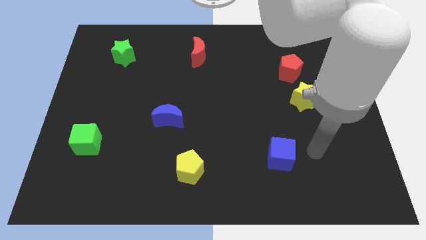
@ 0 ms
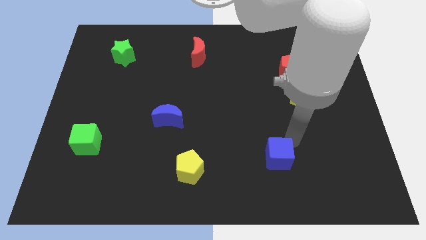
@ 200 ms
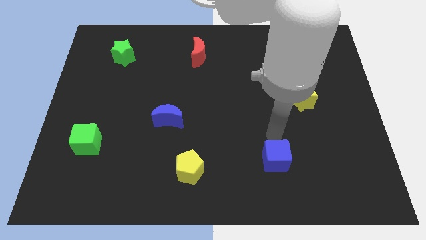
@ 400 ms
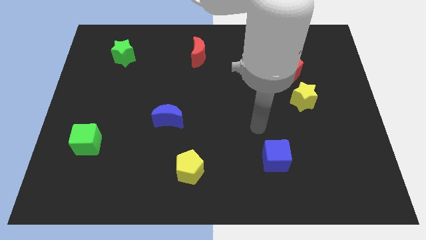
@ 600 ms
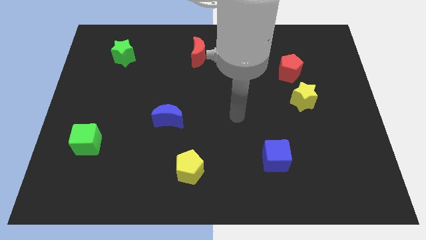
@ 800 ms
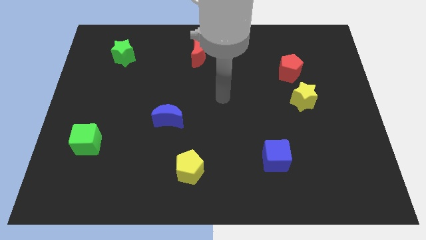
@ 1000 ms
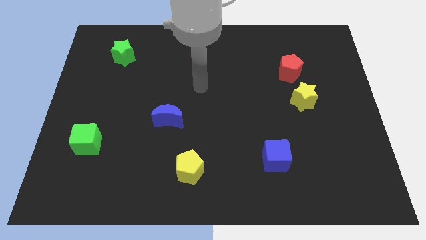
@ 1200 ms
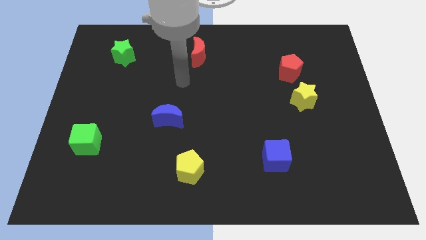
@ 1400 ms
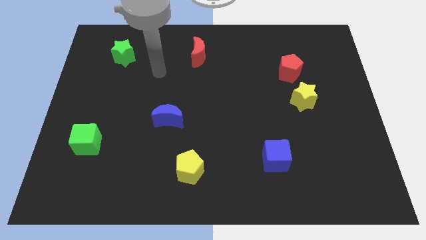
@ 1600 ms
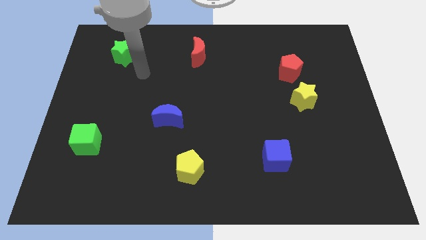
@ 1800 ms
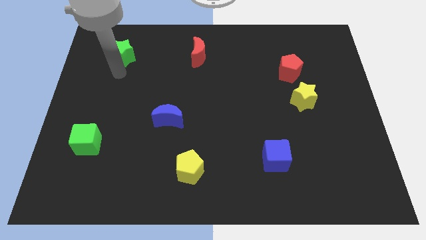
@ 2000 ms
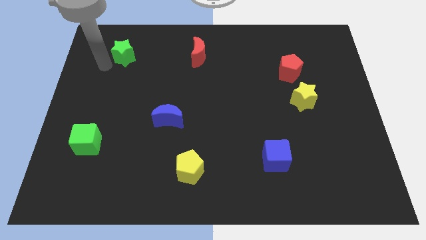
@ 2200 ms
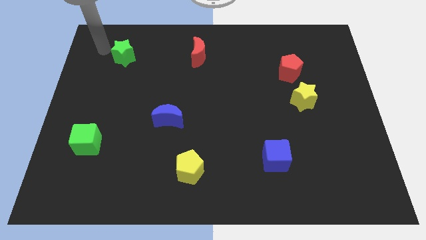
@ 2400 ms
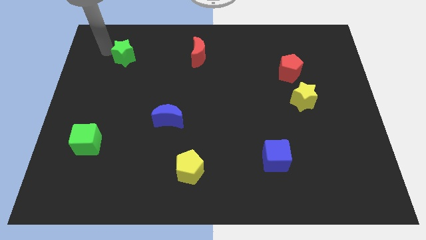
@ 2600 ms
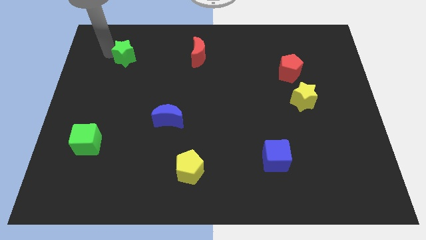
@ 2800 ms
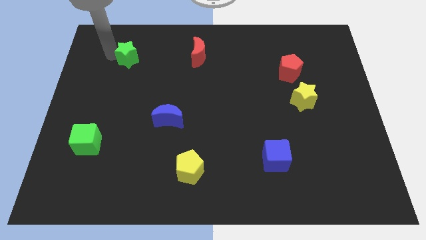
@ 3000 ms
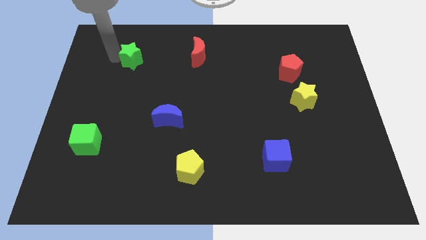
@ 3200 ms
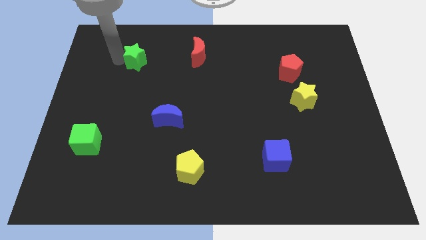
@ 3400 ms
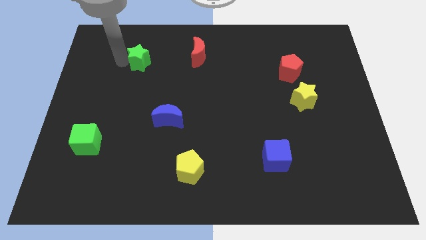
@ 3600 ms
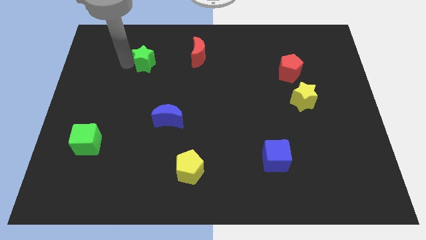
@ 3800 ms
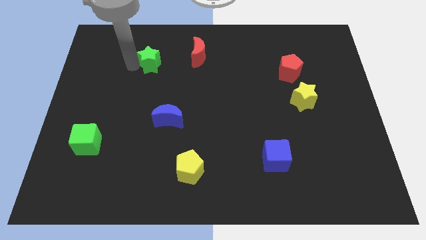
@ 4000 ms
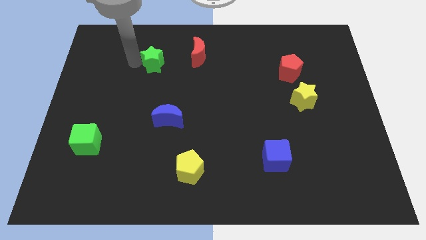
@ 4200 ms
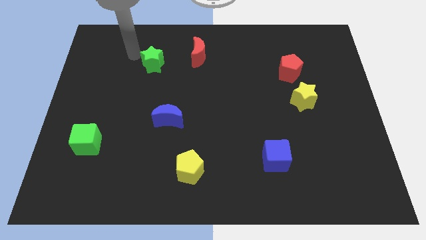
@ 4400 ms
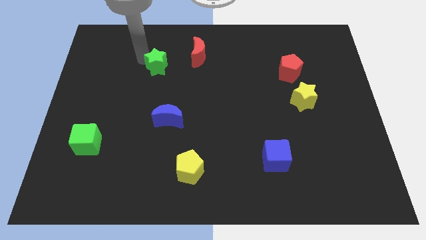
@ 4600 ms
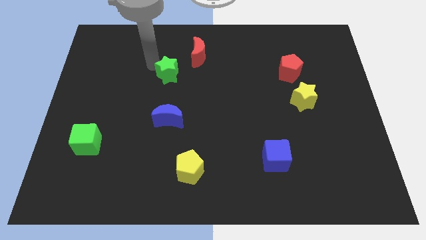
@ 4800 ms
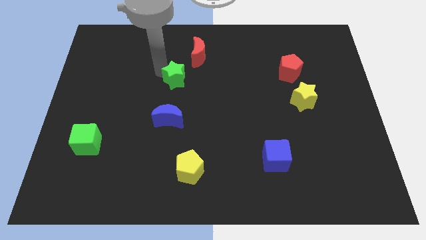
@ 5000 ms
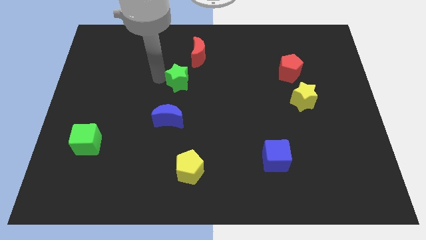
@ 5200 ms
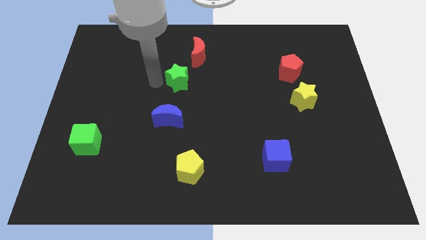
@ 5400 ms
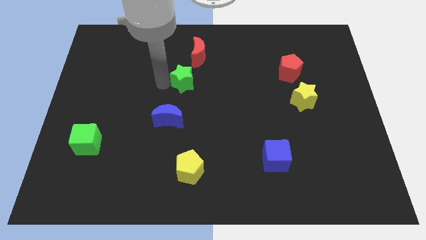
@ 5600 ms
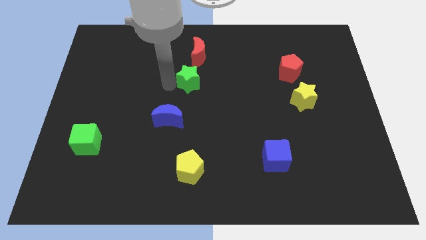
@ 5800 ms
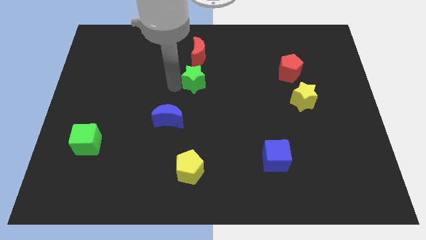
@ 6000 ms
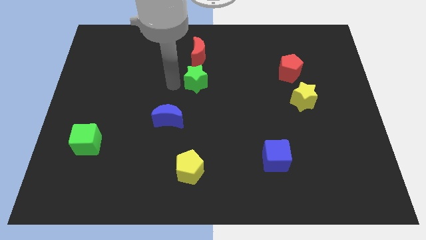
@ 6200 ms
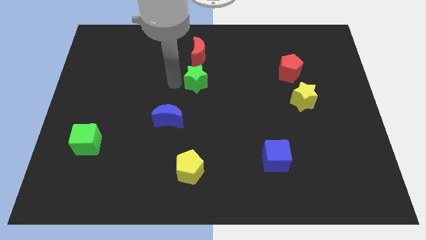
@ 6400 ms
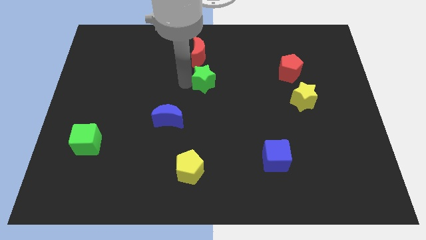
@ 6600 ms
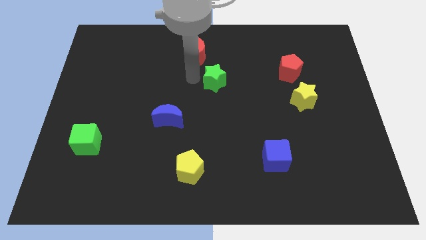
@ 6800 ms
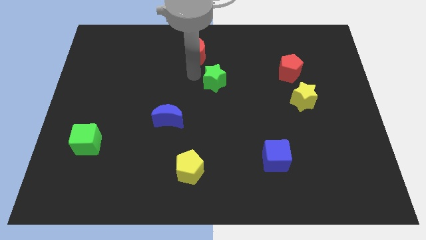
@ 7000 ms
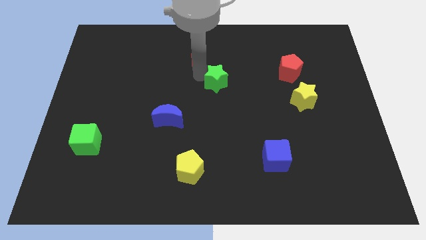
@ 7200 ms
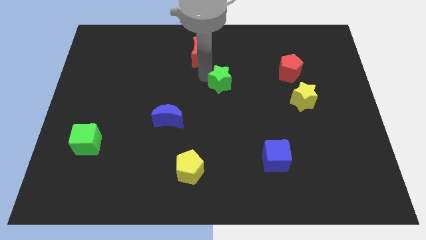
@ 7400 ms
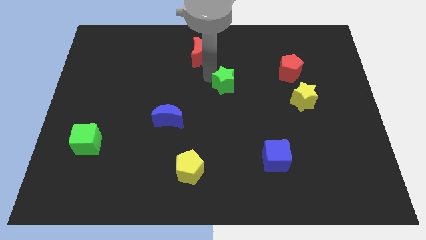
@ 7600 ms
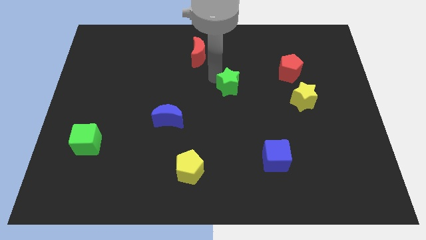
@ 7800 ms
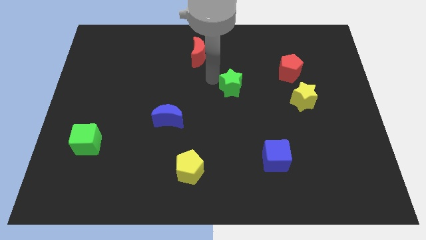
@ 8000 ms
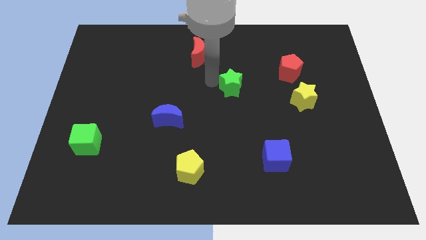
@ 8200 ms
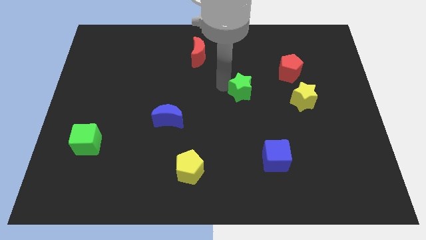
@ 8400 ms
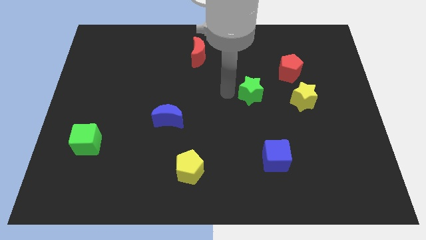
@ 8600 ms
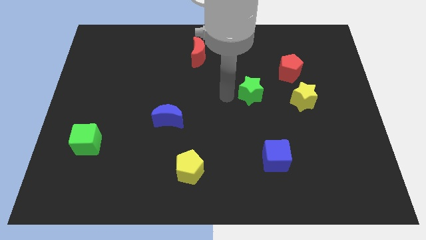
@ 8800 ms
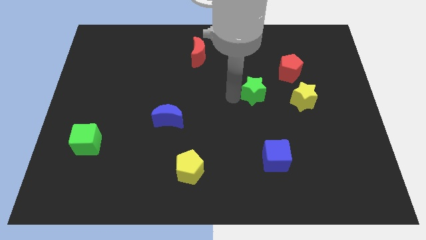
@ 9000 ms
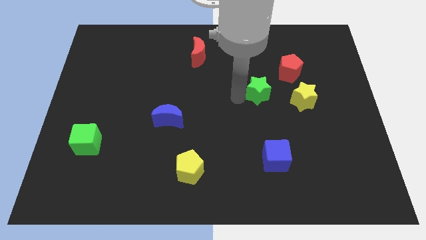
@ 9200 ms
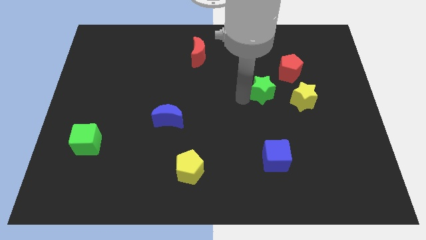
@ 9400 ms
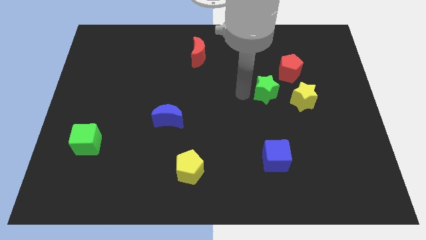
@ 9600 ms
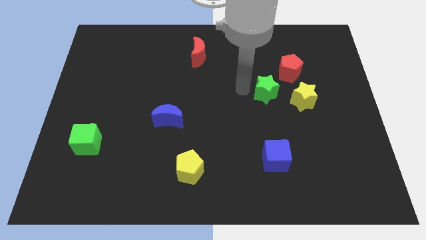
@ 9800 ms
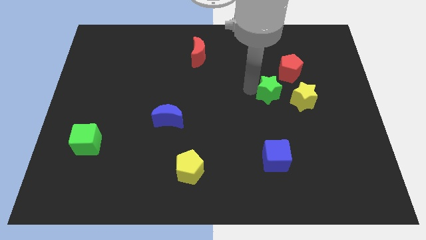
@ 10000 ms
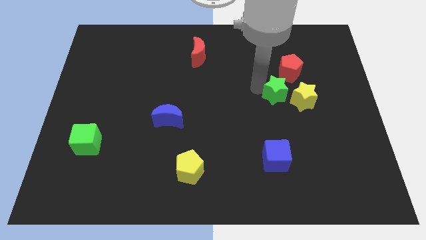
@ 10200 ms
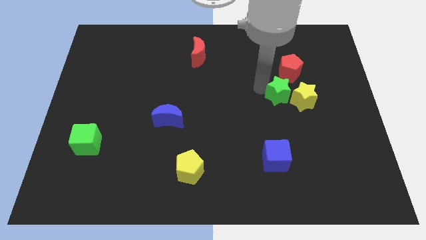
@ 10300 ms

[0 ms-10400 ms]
slide the green star towards the yellow star

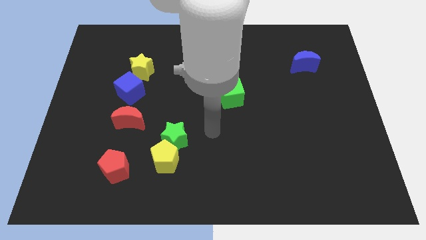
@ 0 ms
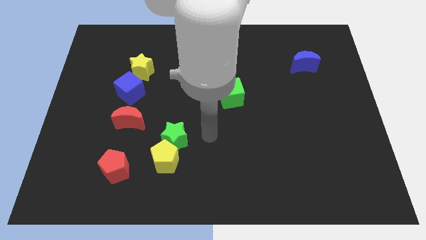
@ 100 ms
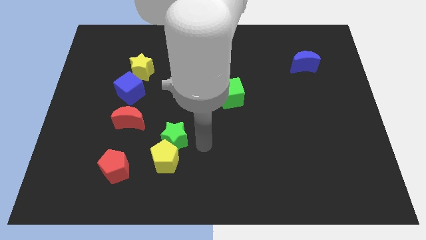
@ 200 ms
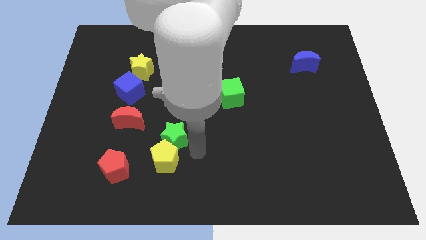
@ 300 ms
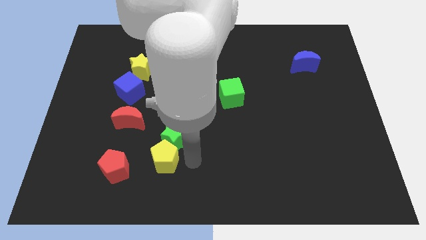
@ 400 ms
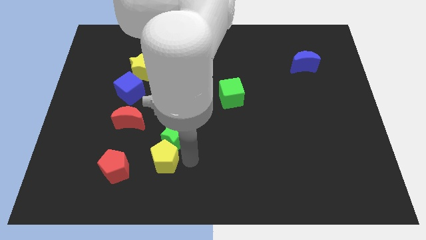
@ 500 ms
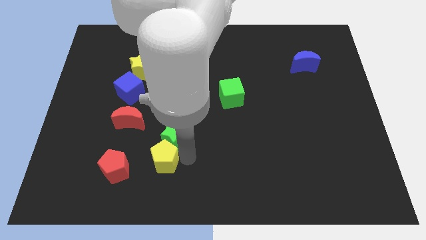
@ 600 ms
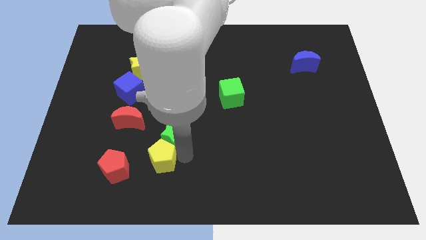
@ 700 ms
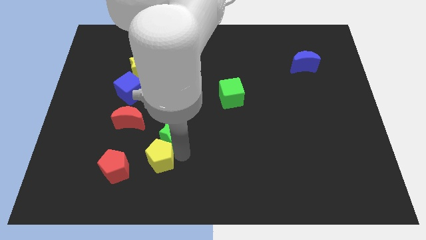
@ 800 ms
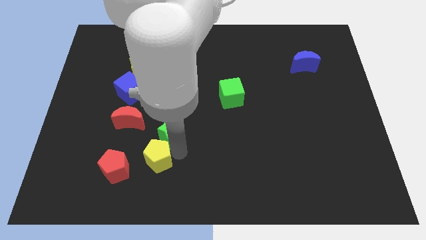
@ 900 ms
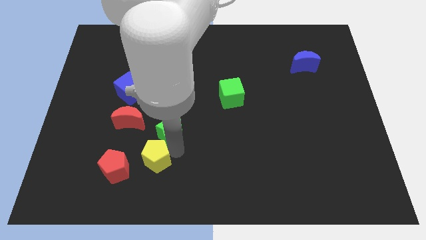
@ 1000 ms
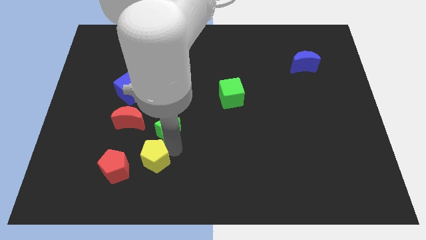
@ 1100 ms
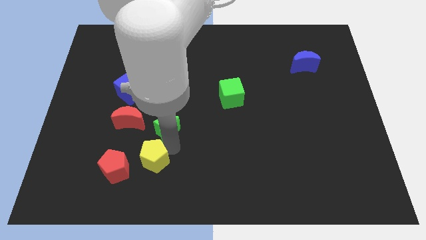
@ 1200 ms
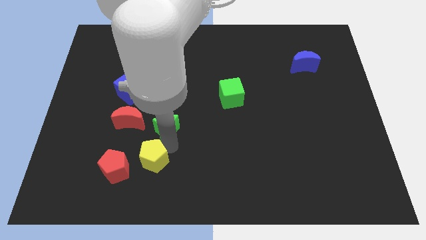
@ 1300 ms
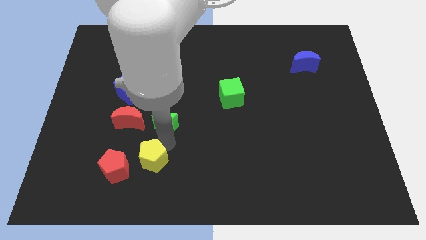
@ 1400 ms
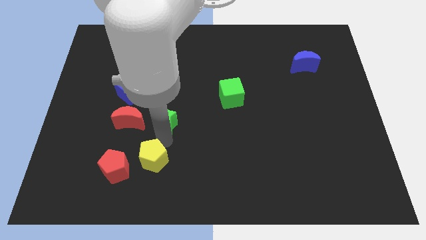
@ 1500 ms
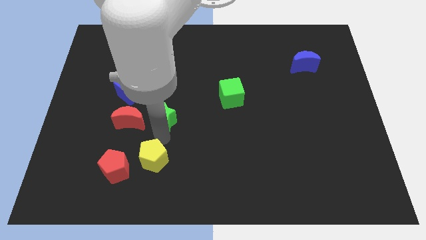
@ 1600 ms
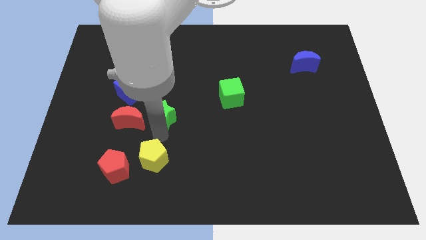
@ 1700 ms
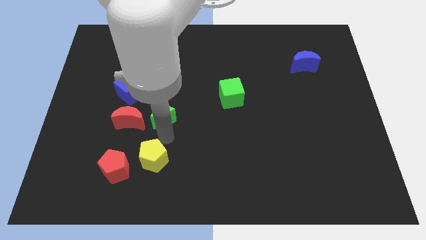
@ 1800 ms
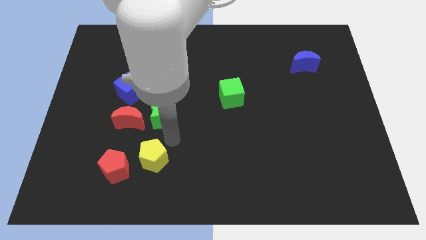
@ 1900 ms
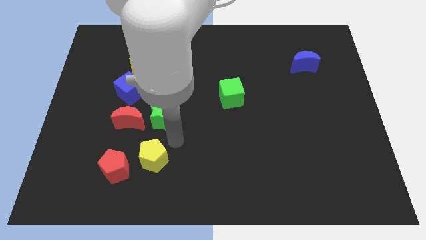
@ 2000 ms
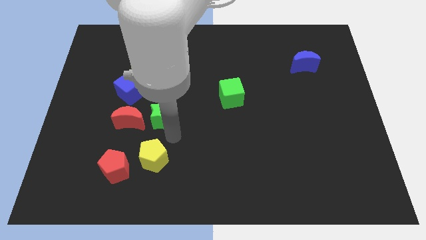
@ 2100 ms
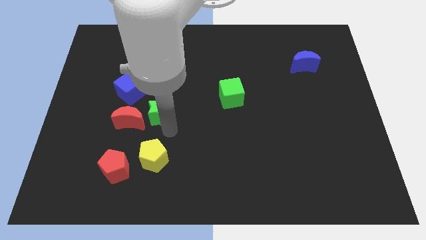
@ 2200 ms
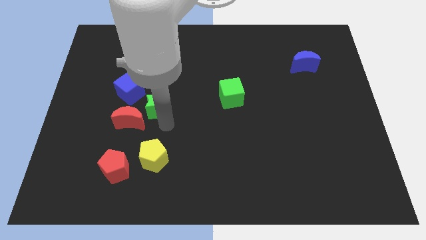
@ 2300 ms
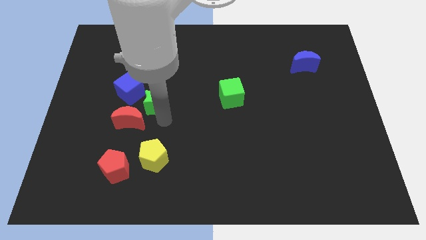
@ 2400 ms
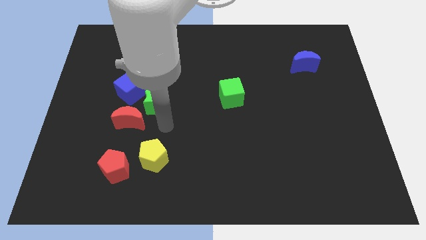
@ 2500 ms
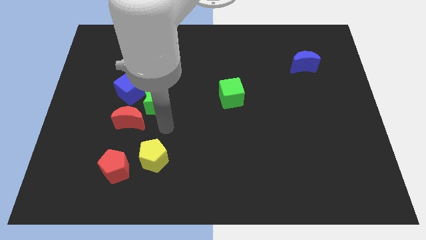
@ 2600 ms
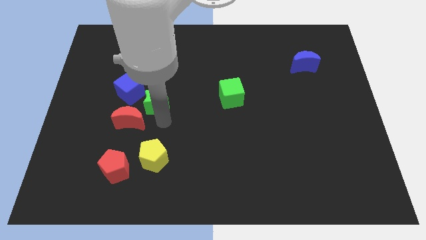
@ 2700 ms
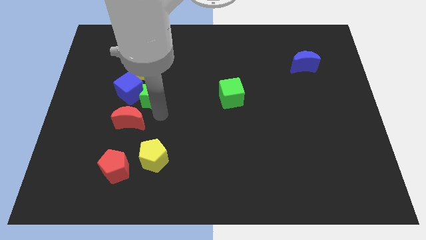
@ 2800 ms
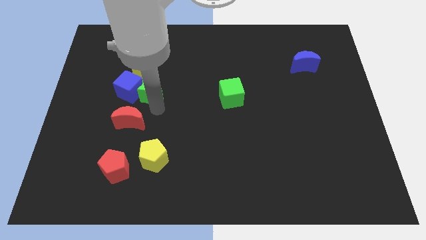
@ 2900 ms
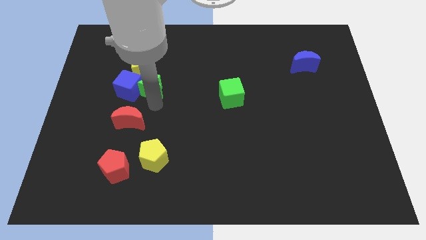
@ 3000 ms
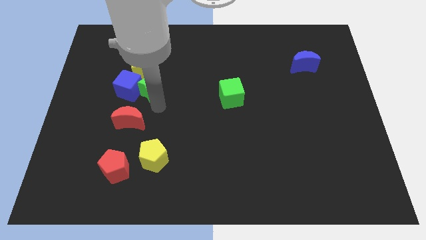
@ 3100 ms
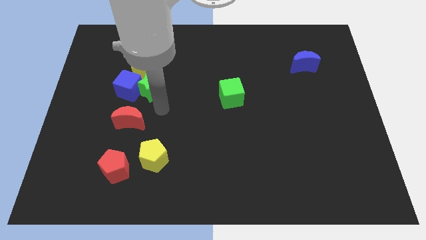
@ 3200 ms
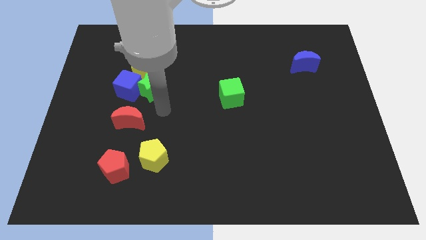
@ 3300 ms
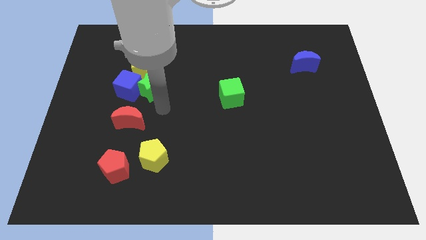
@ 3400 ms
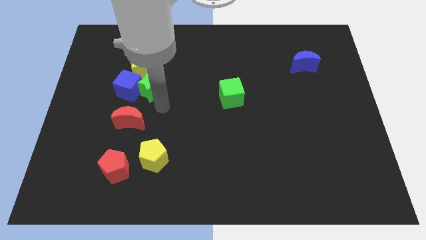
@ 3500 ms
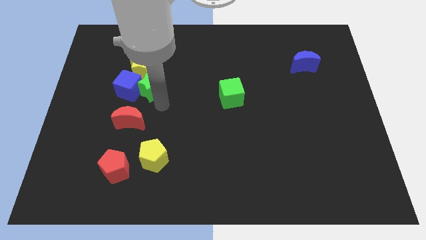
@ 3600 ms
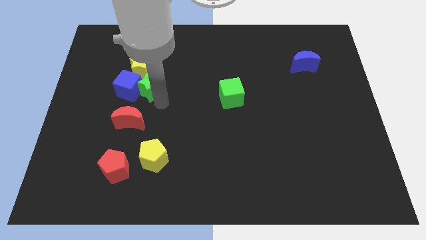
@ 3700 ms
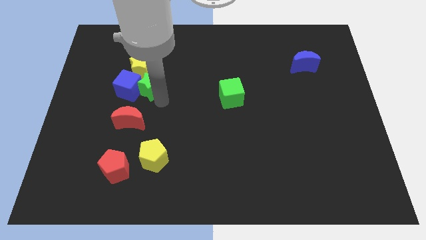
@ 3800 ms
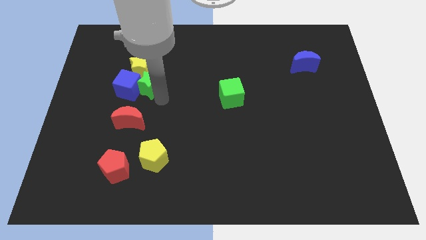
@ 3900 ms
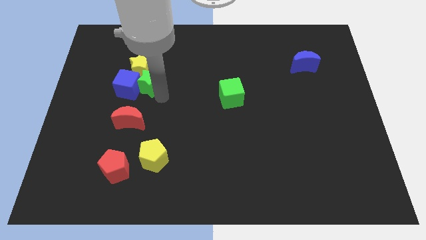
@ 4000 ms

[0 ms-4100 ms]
move the green star to the yellow star
